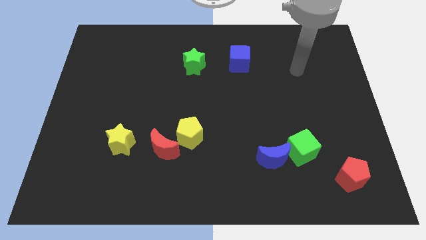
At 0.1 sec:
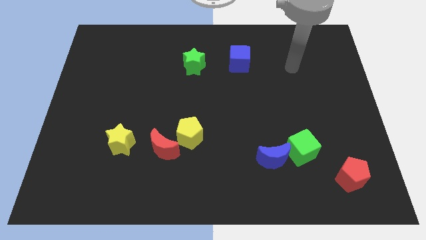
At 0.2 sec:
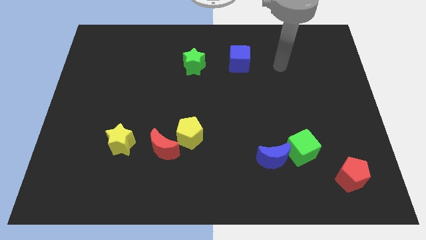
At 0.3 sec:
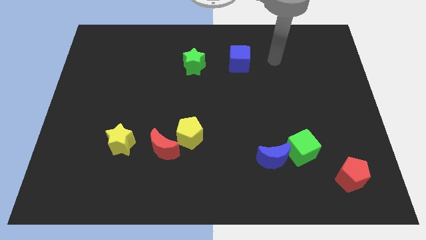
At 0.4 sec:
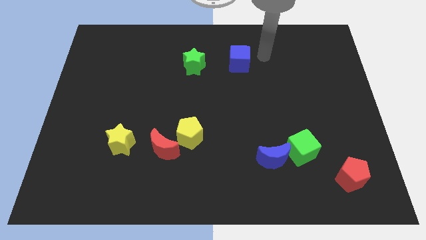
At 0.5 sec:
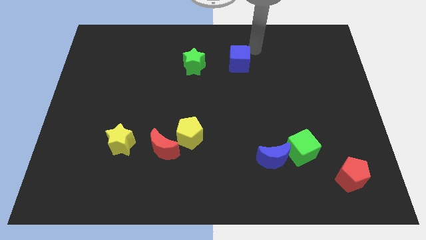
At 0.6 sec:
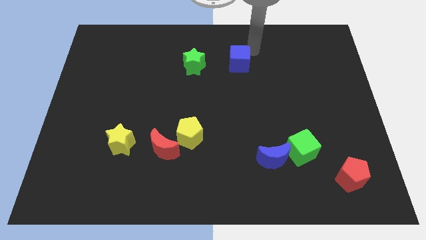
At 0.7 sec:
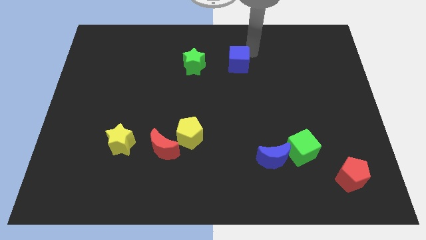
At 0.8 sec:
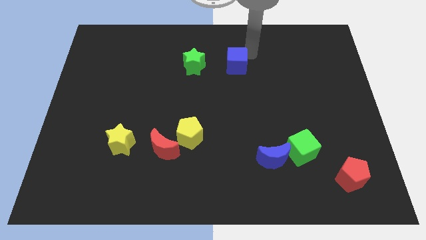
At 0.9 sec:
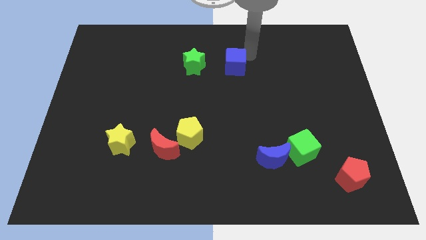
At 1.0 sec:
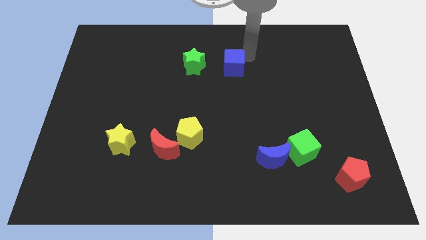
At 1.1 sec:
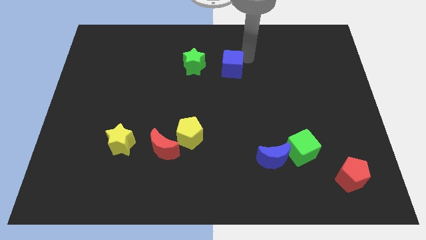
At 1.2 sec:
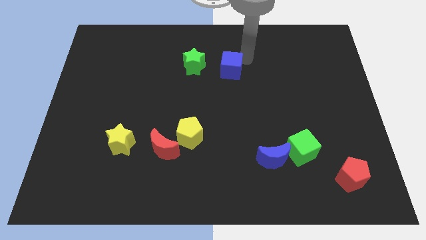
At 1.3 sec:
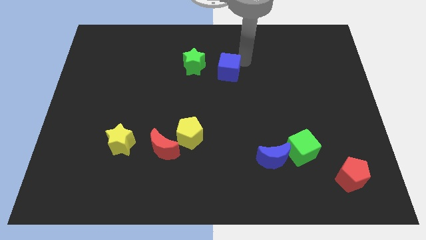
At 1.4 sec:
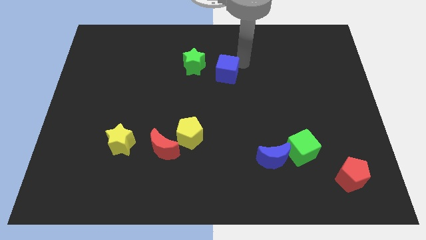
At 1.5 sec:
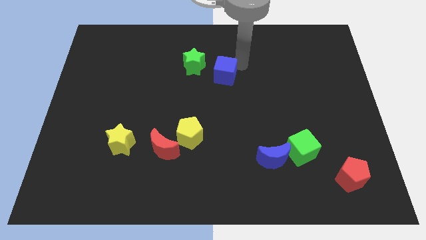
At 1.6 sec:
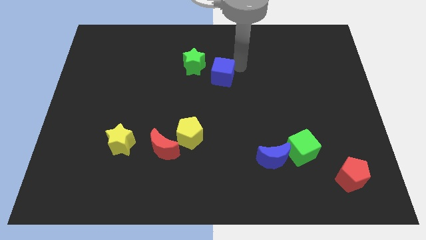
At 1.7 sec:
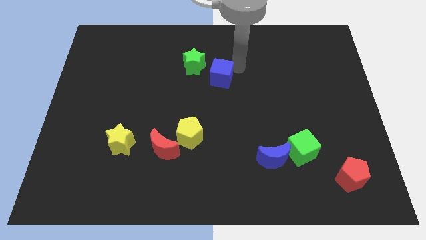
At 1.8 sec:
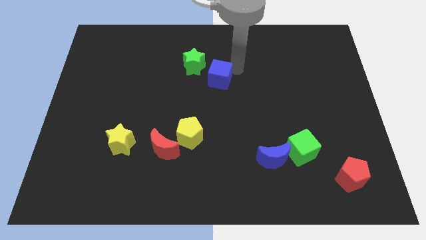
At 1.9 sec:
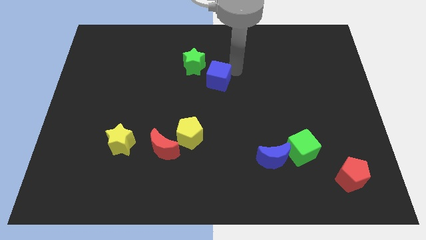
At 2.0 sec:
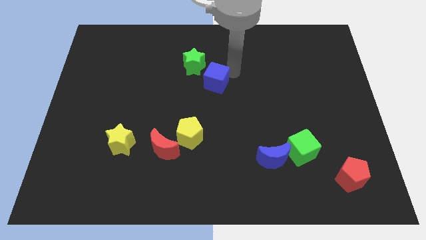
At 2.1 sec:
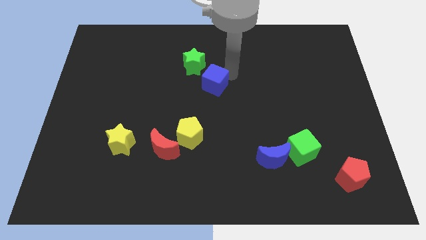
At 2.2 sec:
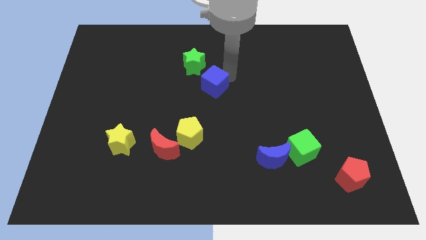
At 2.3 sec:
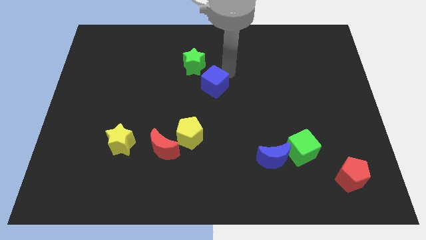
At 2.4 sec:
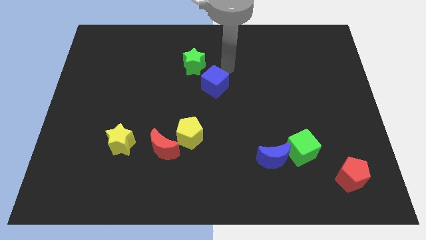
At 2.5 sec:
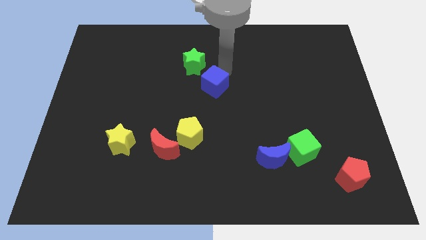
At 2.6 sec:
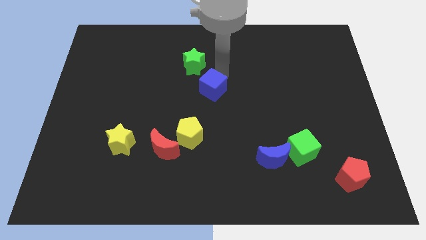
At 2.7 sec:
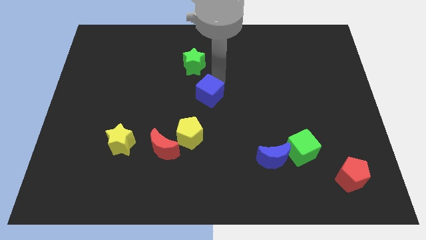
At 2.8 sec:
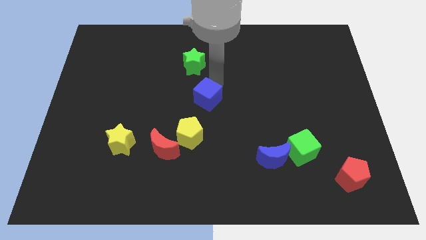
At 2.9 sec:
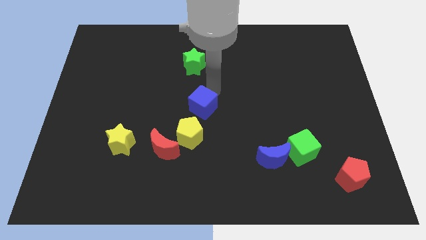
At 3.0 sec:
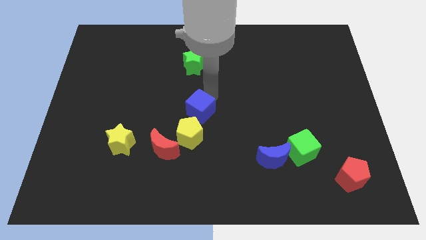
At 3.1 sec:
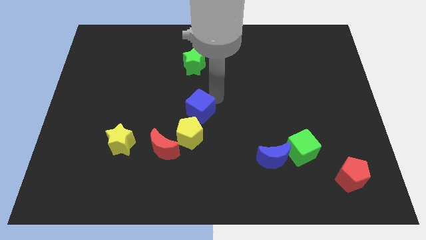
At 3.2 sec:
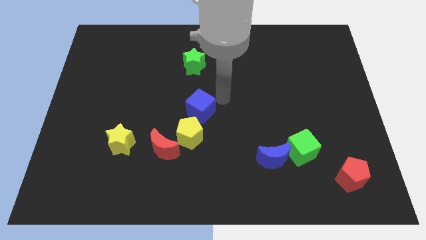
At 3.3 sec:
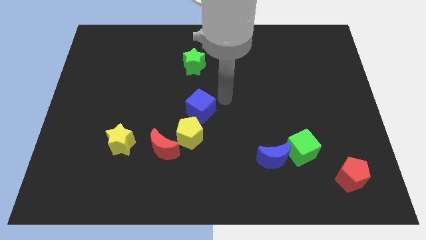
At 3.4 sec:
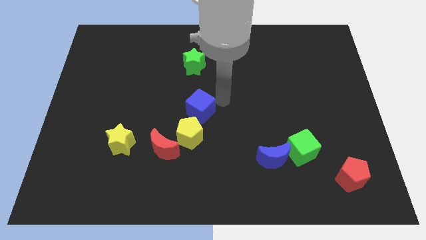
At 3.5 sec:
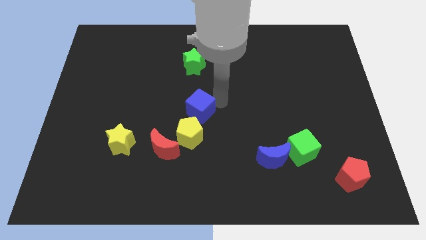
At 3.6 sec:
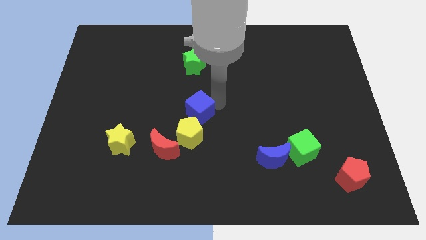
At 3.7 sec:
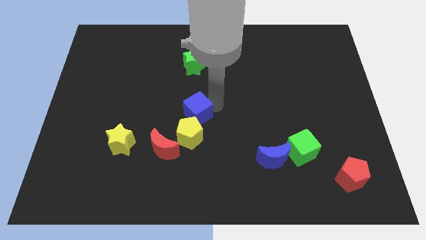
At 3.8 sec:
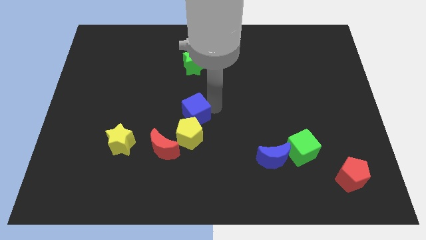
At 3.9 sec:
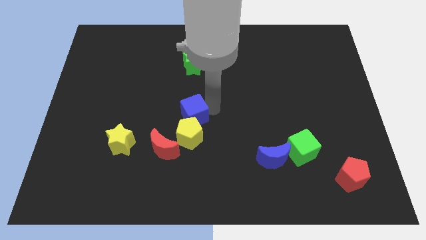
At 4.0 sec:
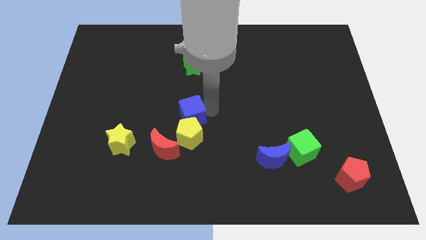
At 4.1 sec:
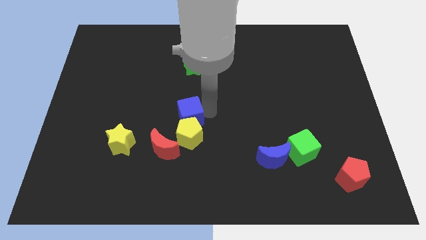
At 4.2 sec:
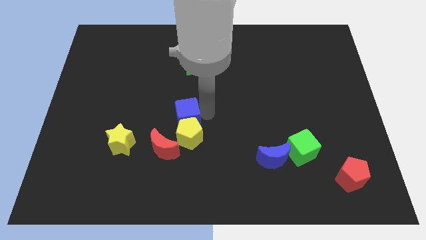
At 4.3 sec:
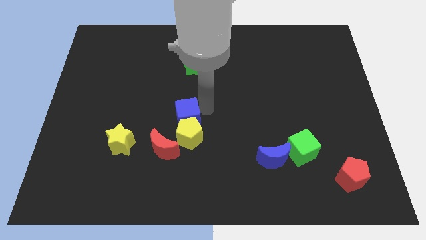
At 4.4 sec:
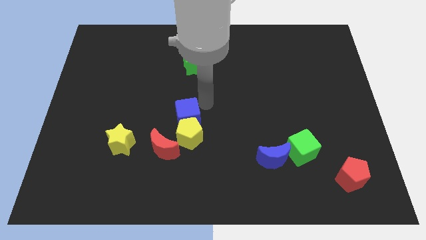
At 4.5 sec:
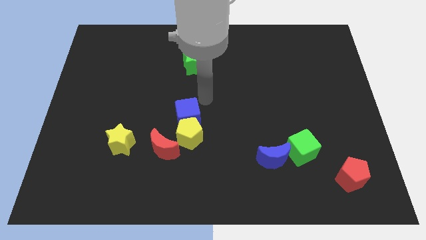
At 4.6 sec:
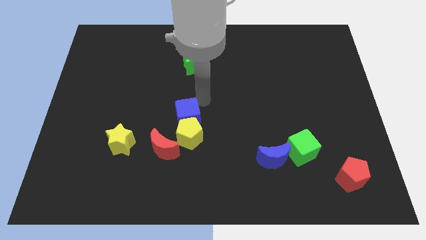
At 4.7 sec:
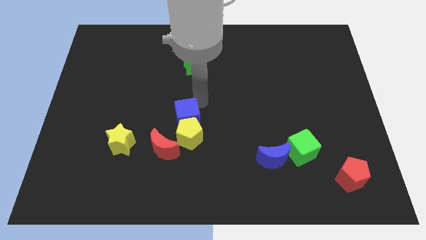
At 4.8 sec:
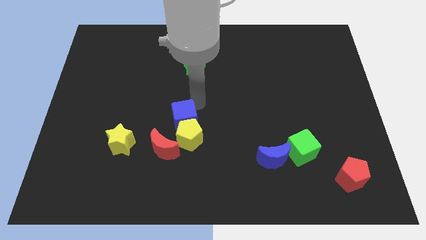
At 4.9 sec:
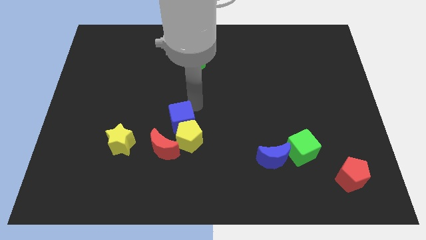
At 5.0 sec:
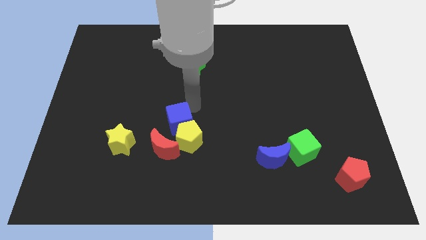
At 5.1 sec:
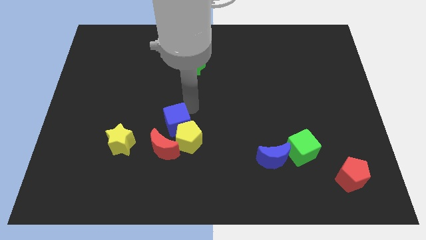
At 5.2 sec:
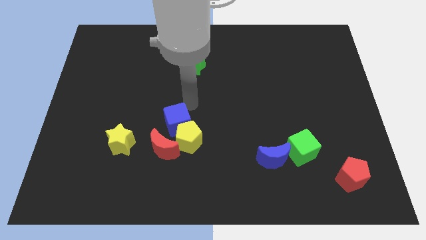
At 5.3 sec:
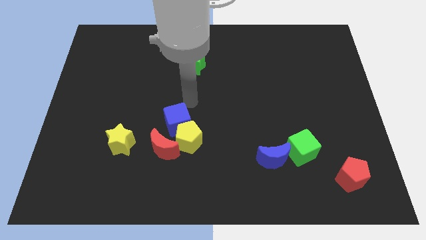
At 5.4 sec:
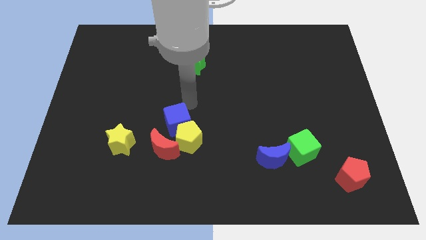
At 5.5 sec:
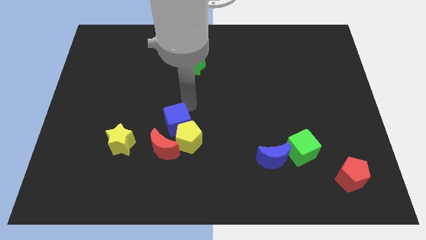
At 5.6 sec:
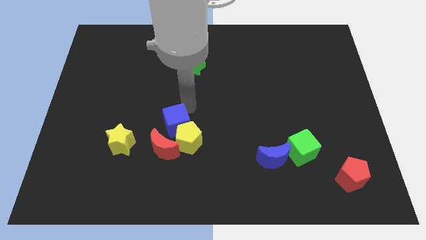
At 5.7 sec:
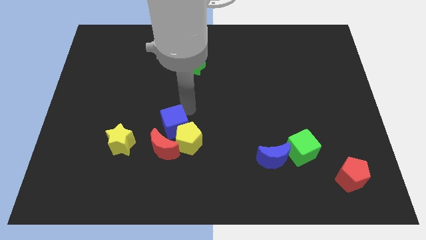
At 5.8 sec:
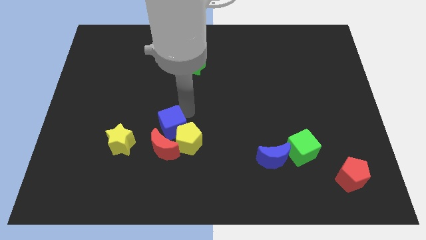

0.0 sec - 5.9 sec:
put the blue cube to the red moon

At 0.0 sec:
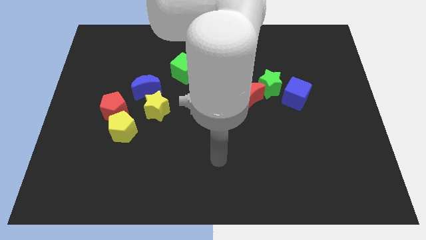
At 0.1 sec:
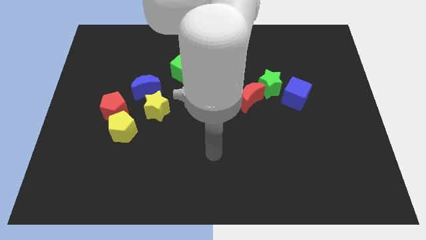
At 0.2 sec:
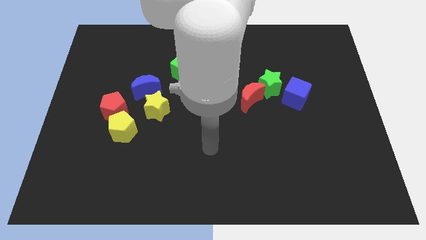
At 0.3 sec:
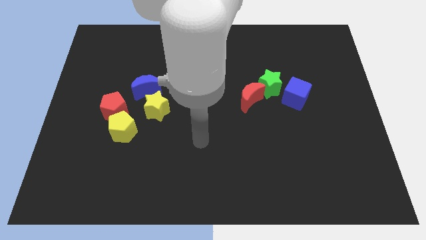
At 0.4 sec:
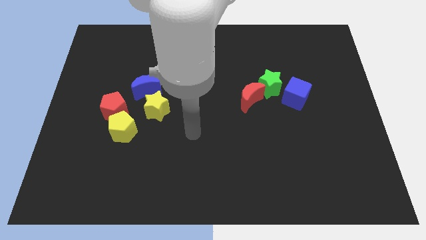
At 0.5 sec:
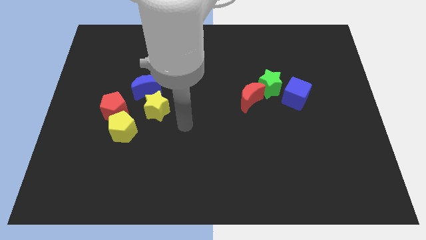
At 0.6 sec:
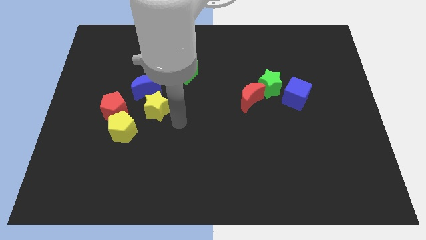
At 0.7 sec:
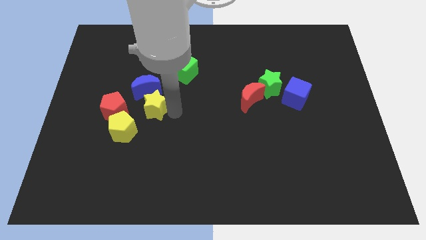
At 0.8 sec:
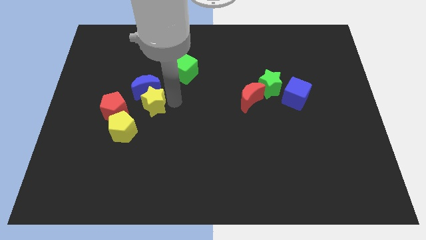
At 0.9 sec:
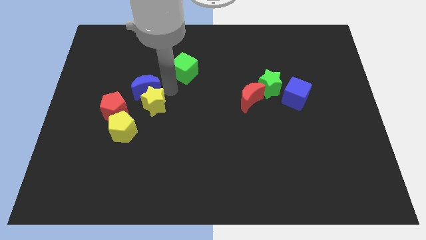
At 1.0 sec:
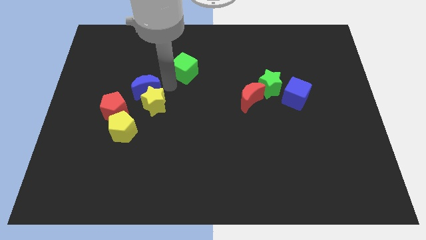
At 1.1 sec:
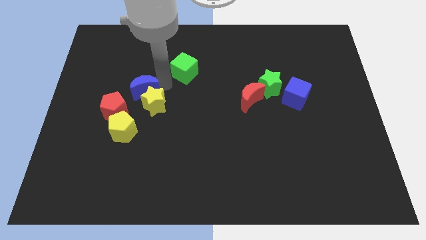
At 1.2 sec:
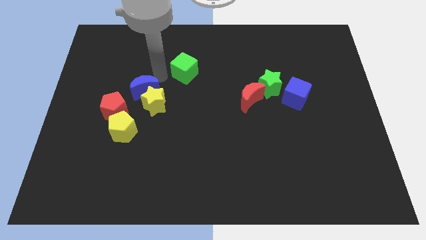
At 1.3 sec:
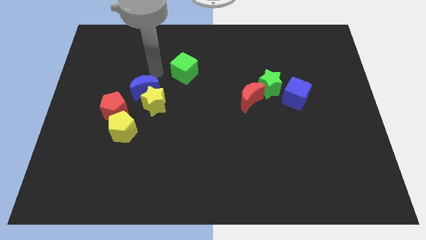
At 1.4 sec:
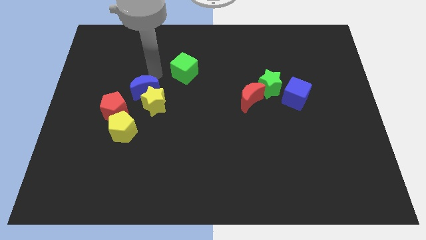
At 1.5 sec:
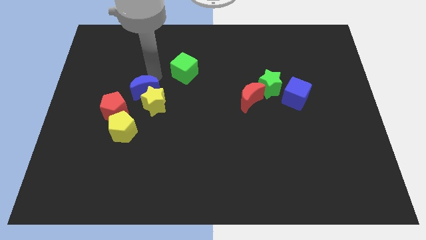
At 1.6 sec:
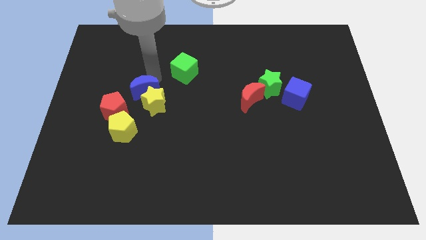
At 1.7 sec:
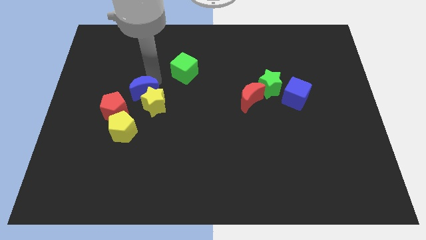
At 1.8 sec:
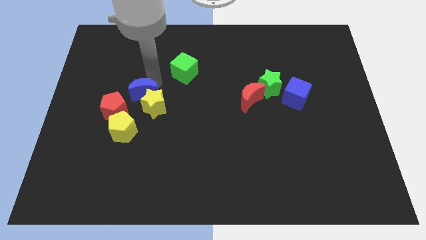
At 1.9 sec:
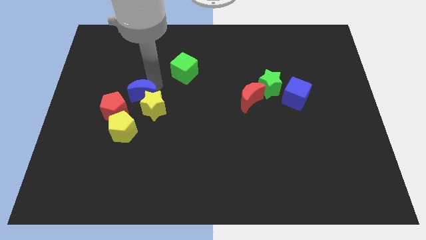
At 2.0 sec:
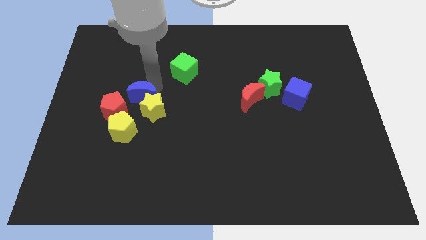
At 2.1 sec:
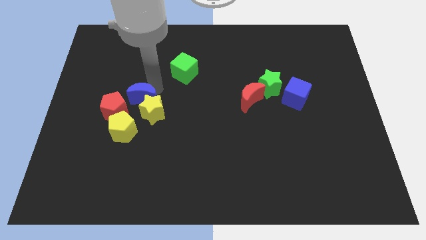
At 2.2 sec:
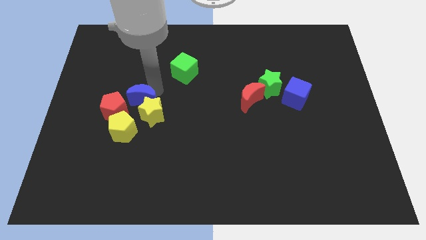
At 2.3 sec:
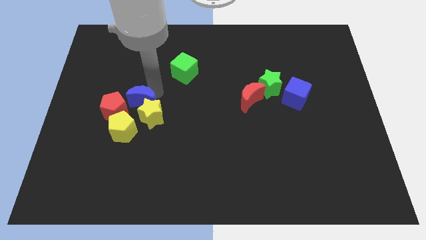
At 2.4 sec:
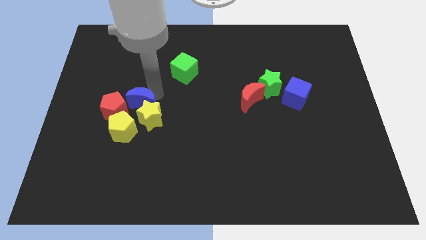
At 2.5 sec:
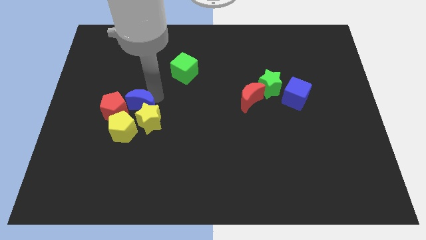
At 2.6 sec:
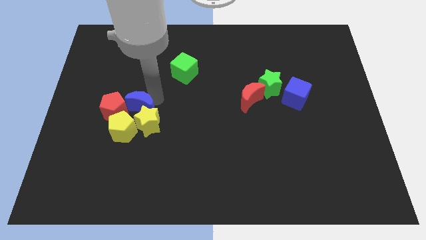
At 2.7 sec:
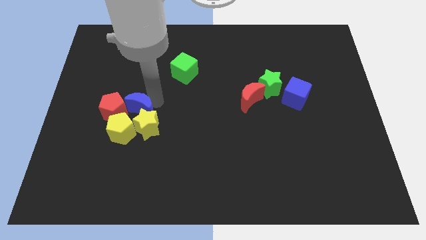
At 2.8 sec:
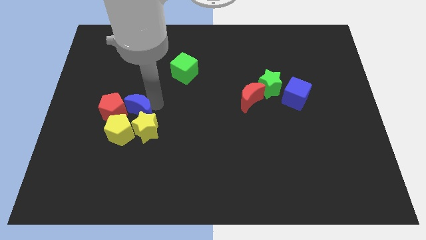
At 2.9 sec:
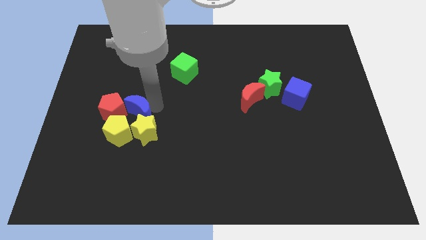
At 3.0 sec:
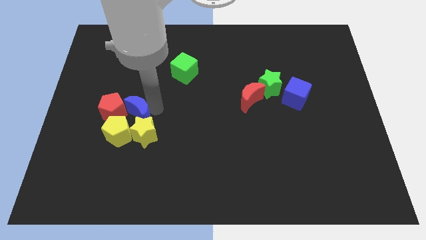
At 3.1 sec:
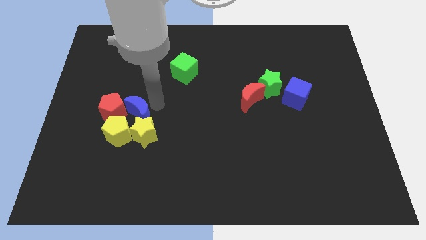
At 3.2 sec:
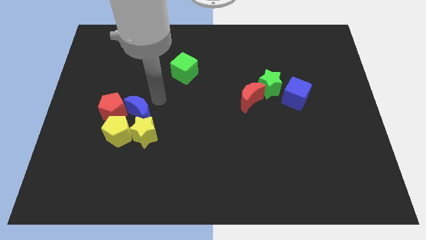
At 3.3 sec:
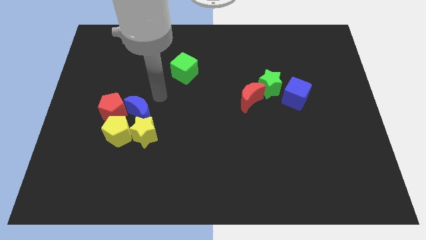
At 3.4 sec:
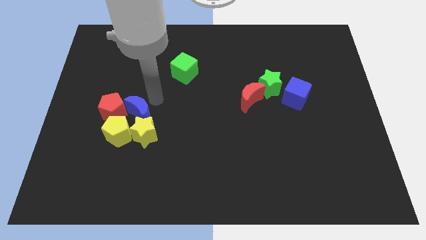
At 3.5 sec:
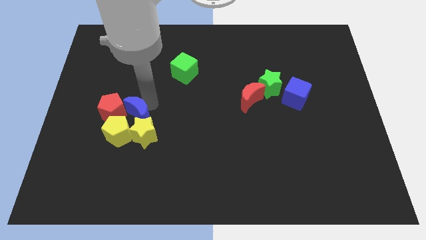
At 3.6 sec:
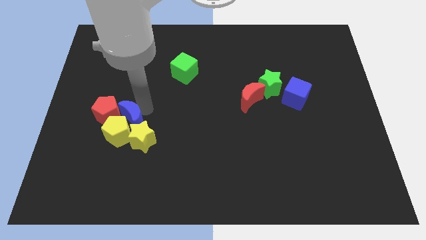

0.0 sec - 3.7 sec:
slide the blue moon towards the yellow pentagon
